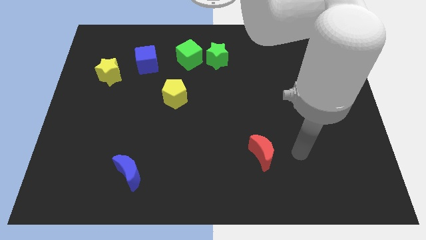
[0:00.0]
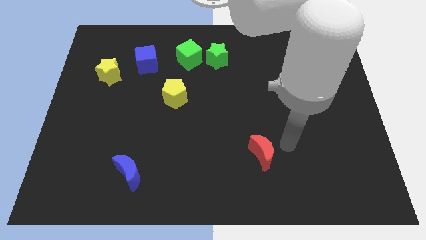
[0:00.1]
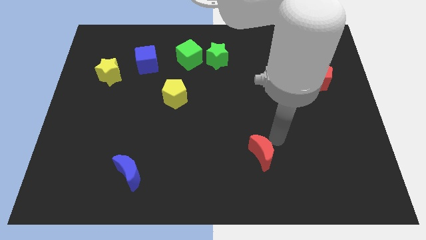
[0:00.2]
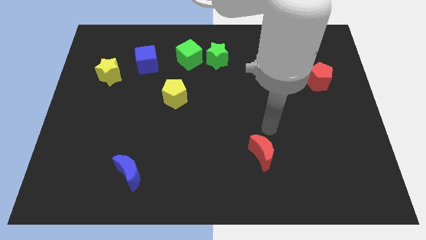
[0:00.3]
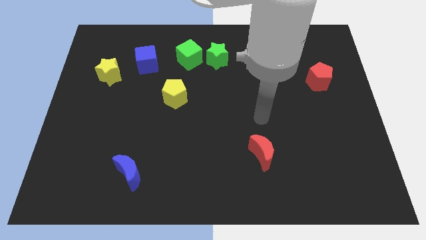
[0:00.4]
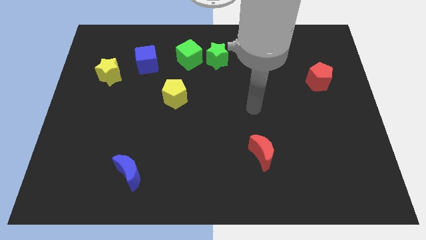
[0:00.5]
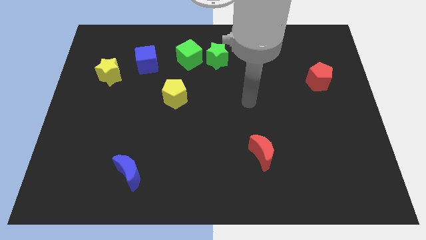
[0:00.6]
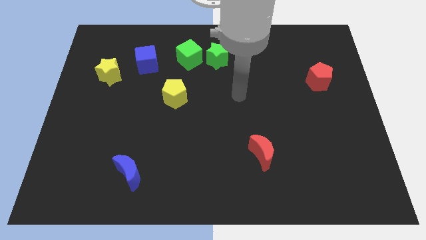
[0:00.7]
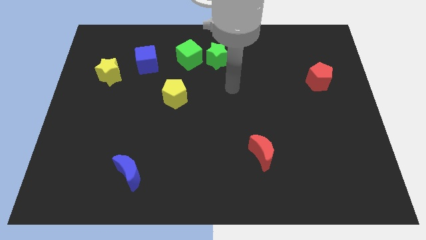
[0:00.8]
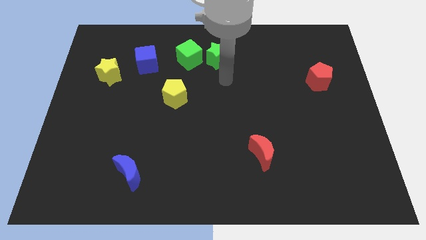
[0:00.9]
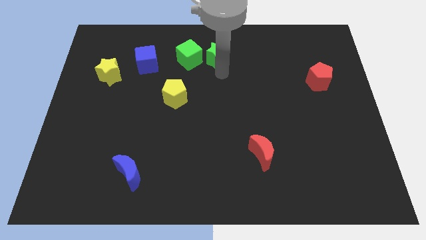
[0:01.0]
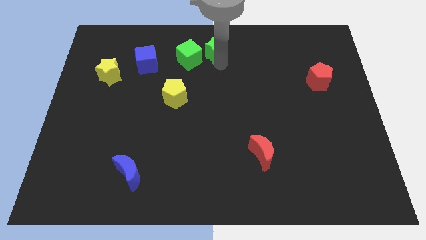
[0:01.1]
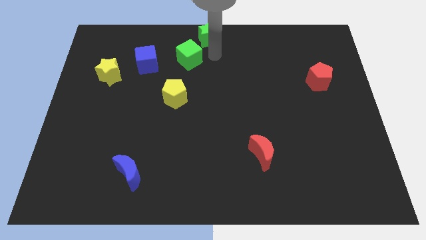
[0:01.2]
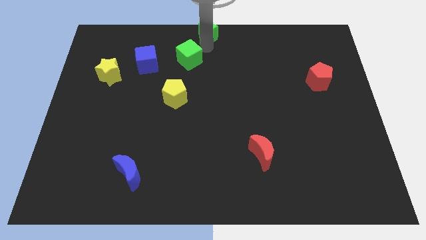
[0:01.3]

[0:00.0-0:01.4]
separate the green cube from the green star

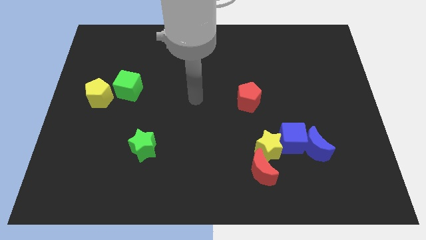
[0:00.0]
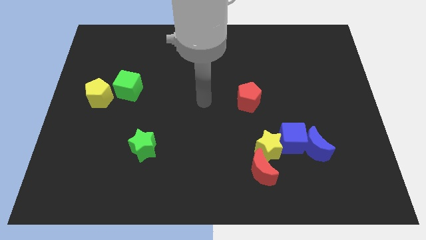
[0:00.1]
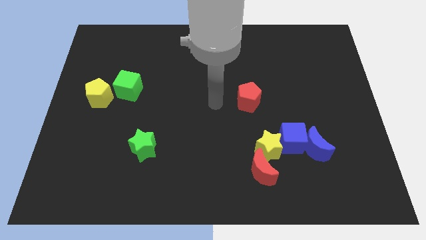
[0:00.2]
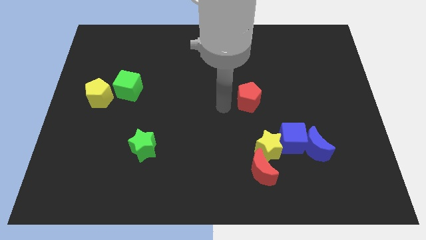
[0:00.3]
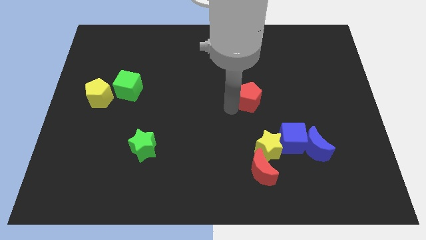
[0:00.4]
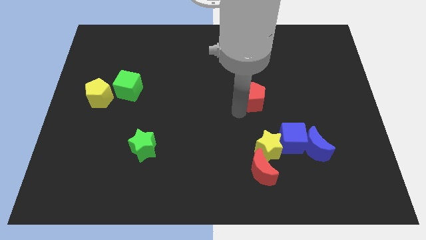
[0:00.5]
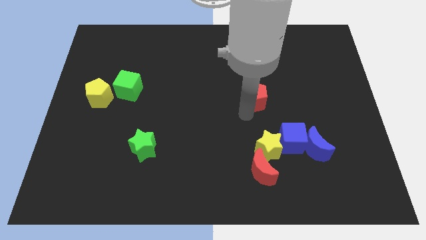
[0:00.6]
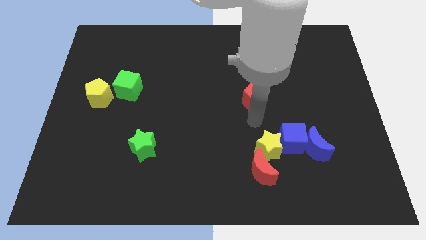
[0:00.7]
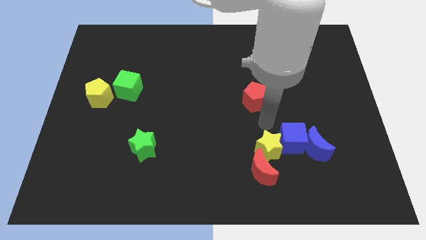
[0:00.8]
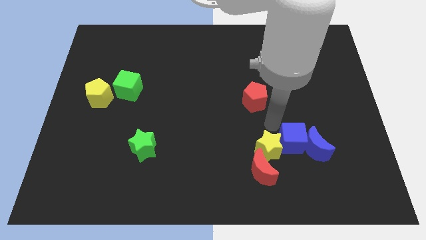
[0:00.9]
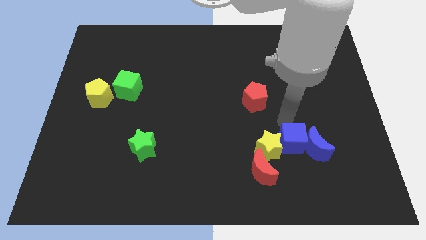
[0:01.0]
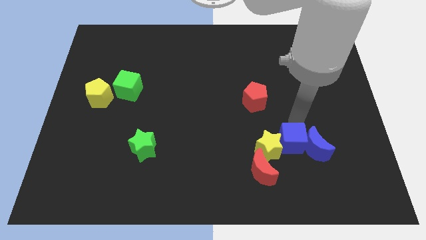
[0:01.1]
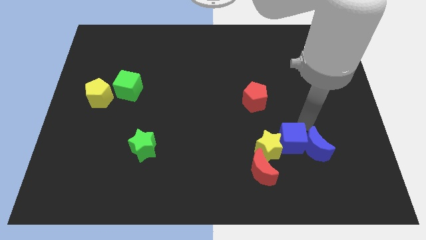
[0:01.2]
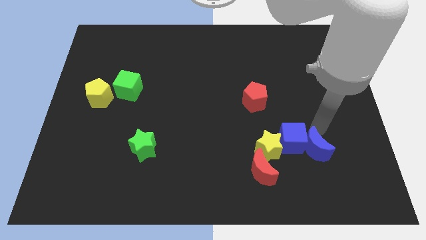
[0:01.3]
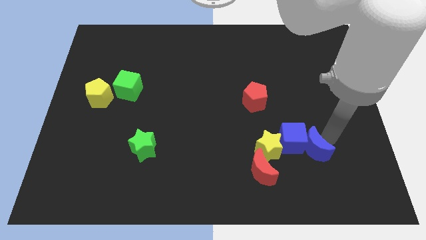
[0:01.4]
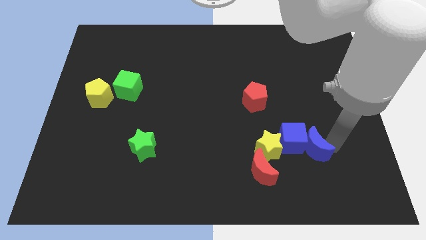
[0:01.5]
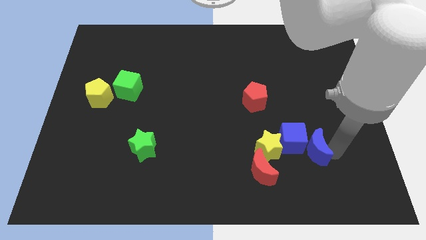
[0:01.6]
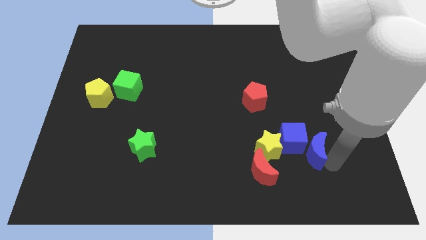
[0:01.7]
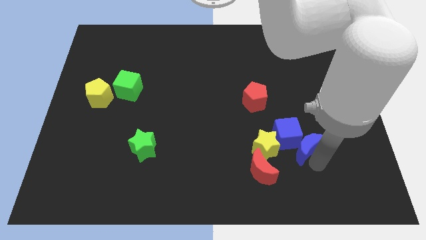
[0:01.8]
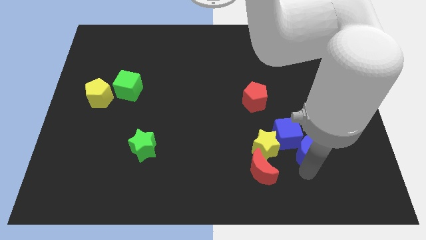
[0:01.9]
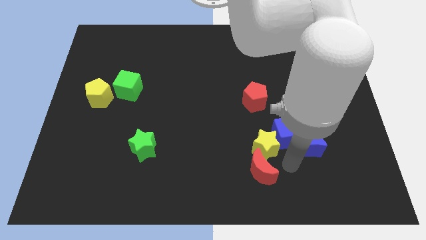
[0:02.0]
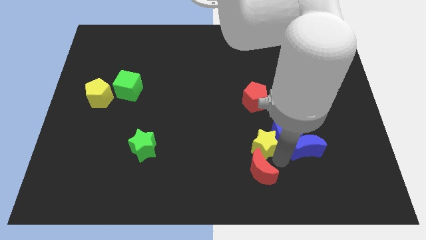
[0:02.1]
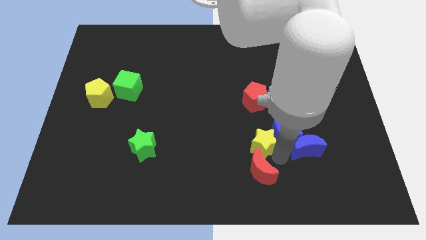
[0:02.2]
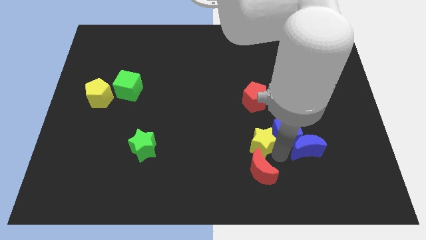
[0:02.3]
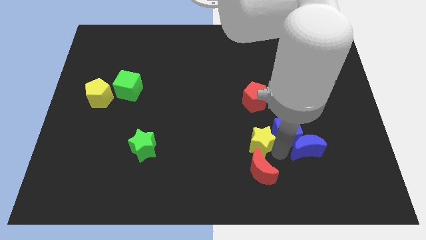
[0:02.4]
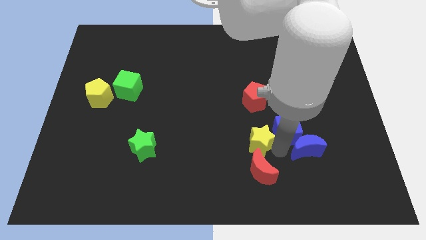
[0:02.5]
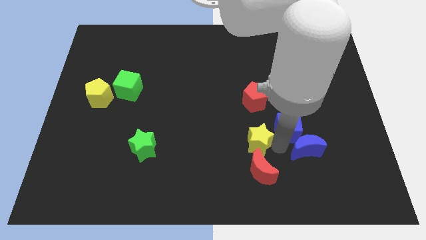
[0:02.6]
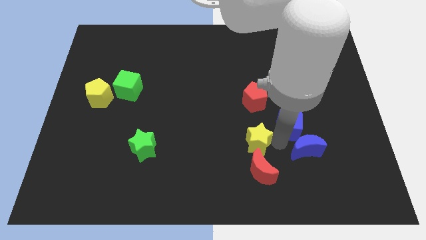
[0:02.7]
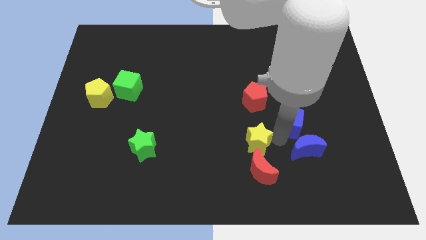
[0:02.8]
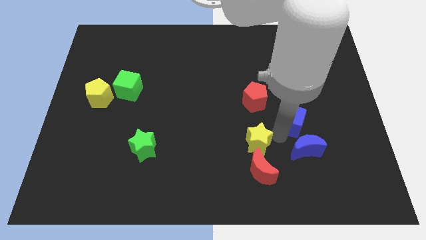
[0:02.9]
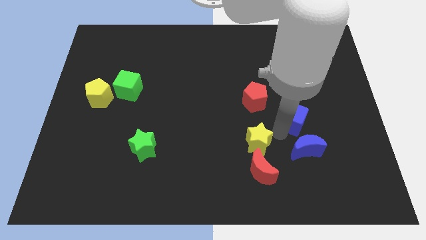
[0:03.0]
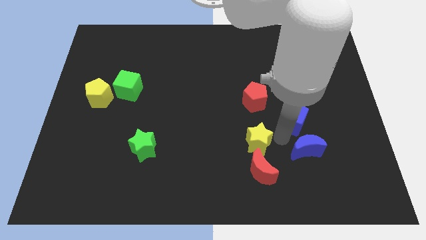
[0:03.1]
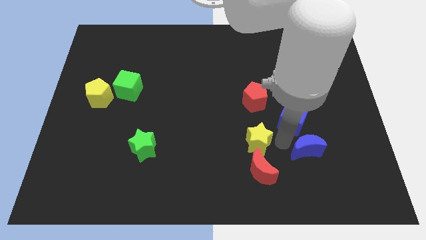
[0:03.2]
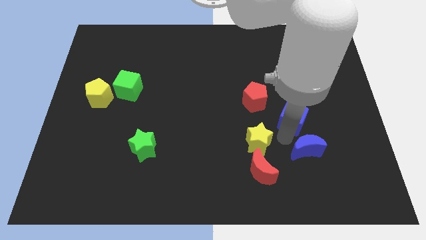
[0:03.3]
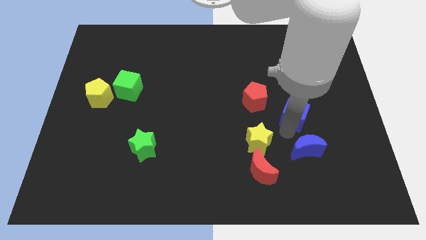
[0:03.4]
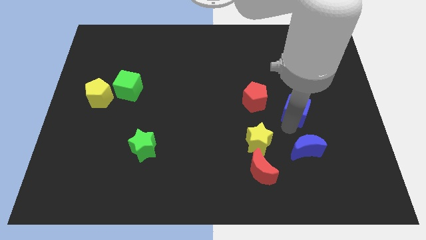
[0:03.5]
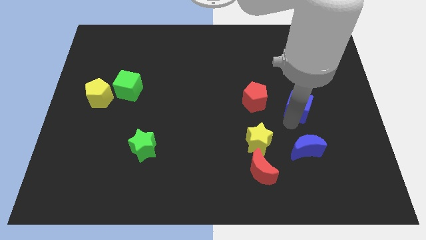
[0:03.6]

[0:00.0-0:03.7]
separate the blue cube from the blue moon and yellow star

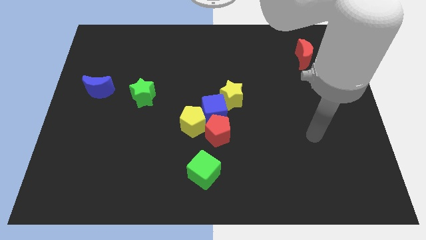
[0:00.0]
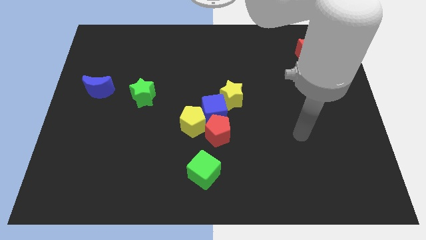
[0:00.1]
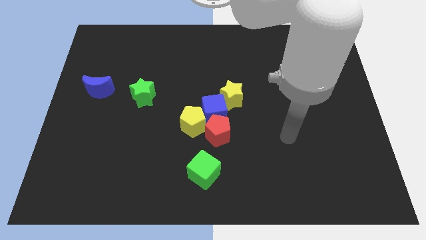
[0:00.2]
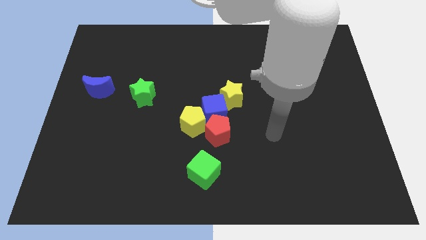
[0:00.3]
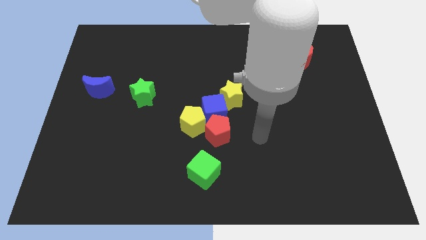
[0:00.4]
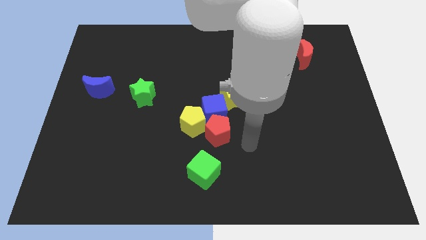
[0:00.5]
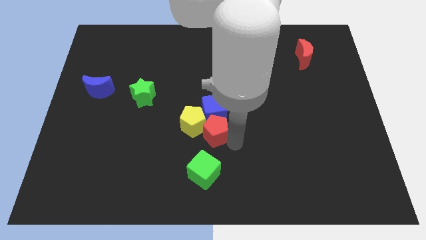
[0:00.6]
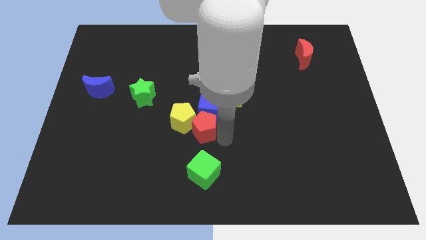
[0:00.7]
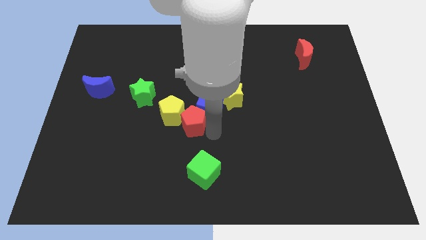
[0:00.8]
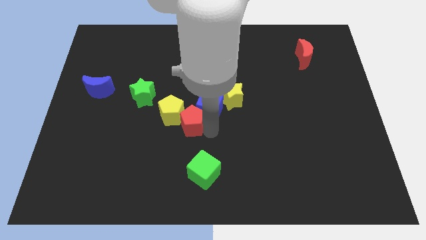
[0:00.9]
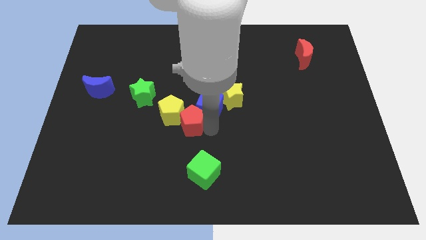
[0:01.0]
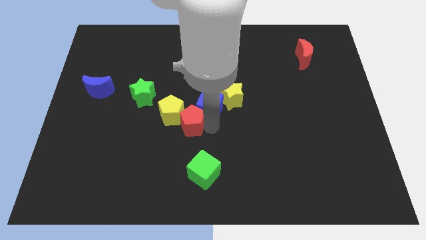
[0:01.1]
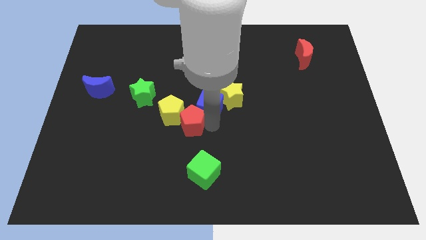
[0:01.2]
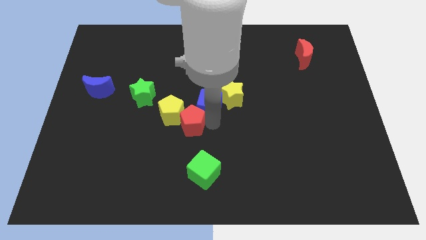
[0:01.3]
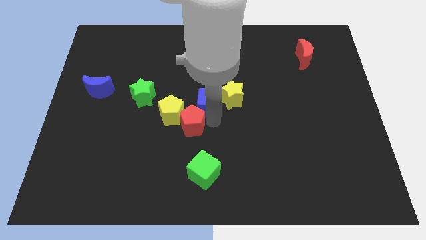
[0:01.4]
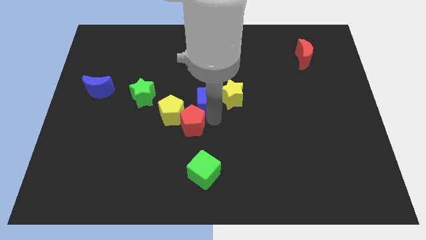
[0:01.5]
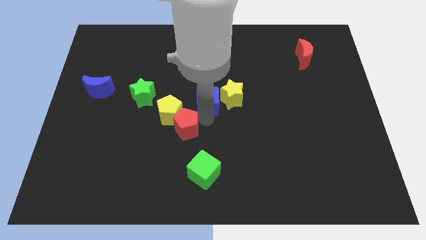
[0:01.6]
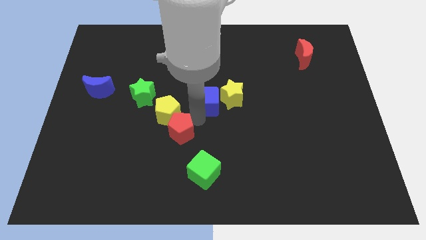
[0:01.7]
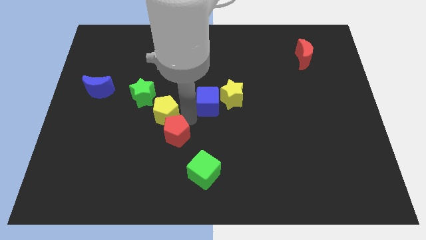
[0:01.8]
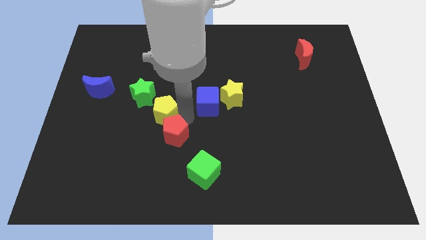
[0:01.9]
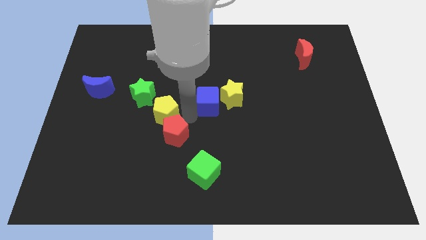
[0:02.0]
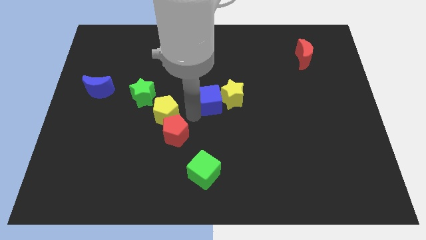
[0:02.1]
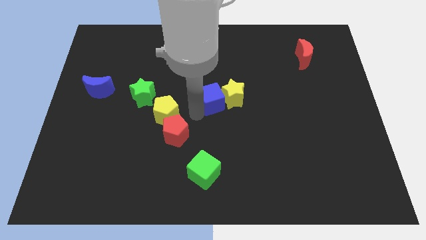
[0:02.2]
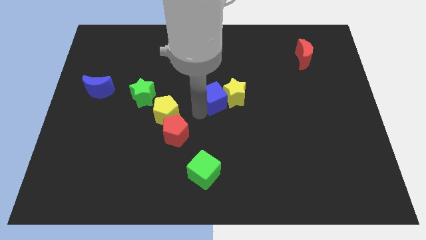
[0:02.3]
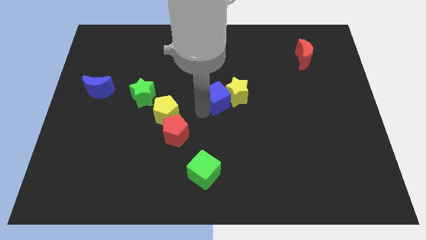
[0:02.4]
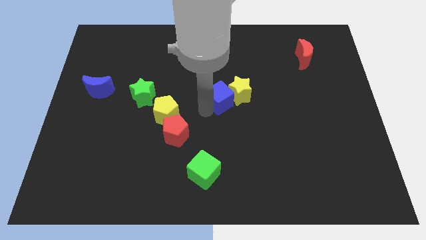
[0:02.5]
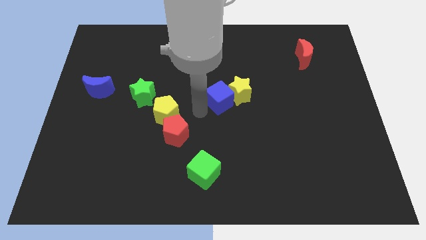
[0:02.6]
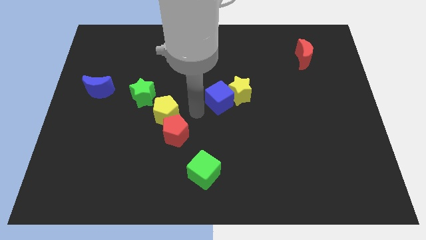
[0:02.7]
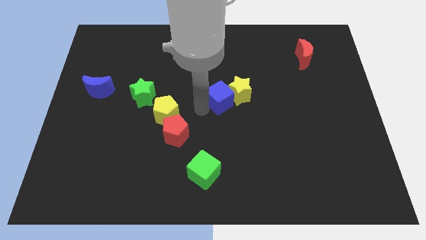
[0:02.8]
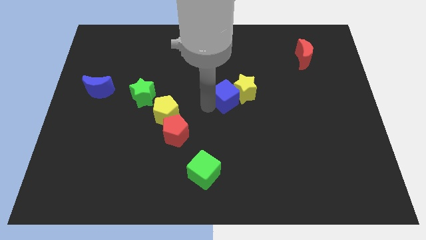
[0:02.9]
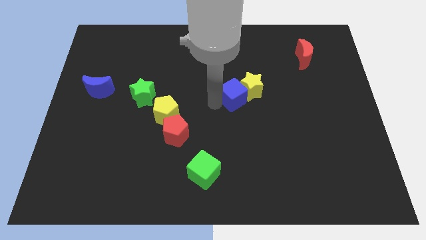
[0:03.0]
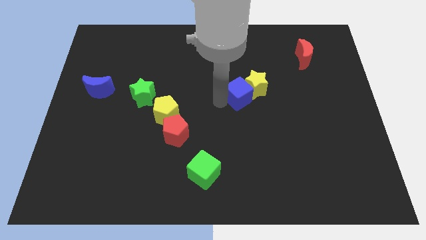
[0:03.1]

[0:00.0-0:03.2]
separate the blue cube from the group

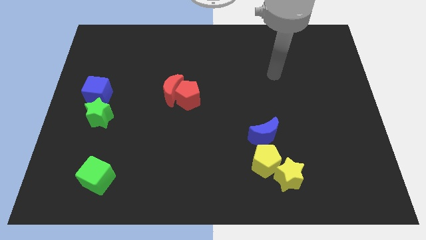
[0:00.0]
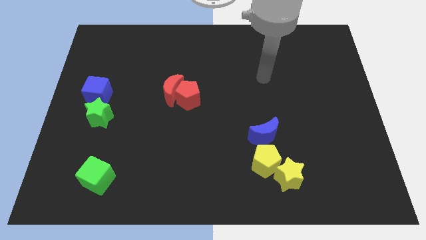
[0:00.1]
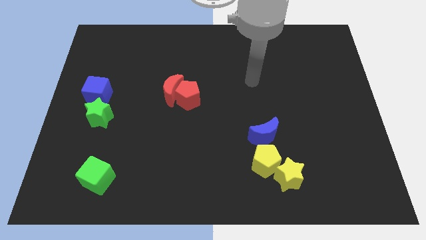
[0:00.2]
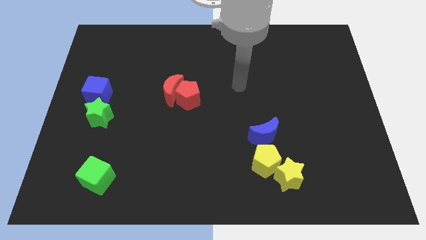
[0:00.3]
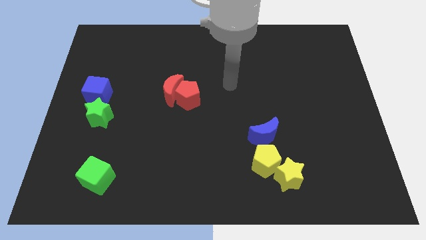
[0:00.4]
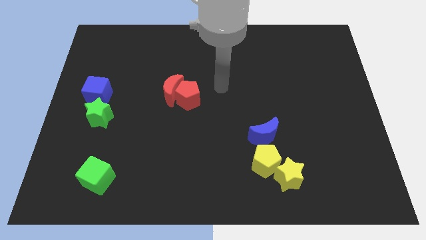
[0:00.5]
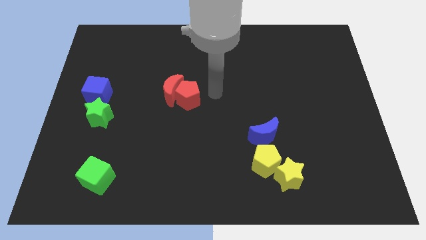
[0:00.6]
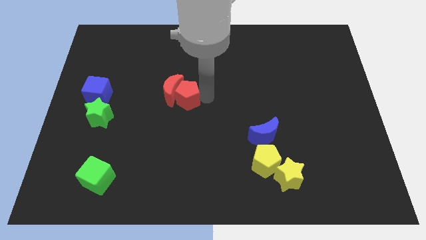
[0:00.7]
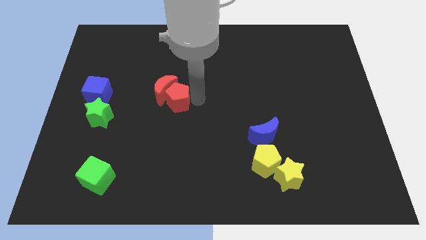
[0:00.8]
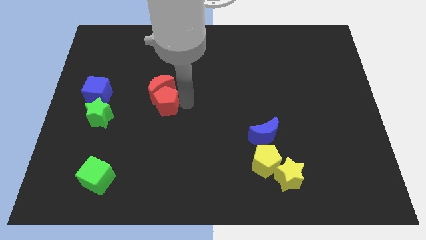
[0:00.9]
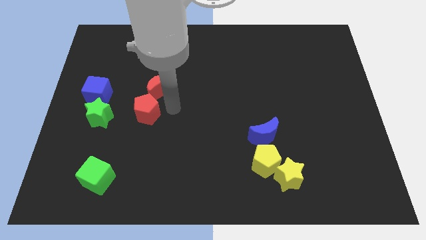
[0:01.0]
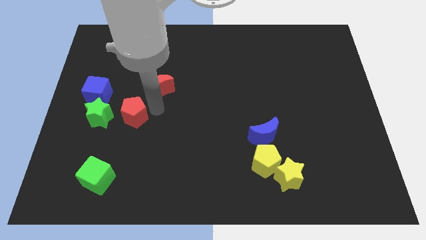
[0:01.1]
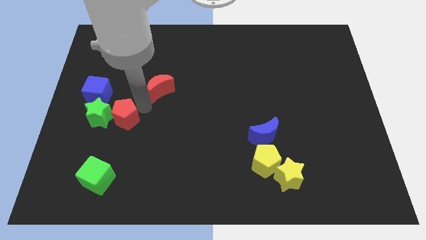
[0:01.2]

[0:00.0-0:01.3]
move the red moon away from the red pentagon
